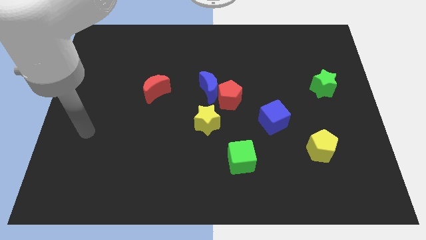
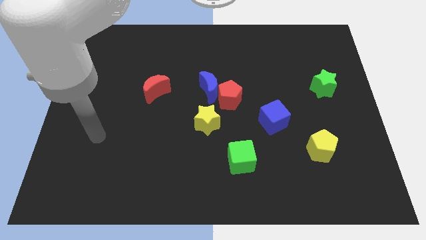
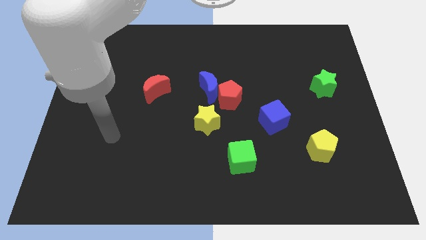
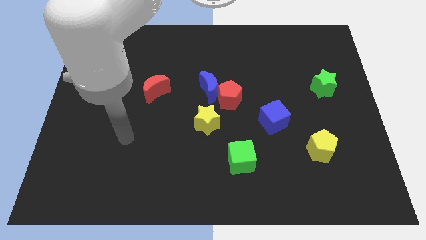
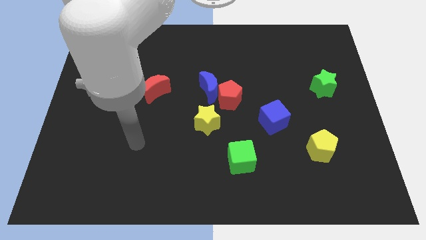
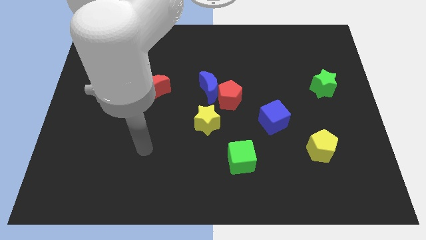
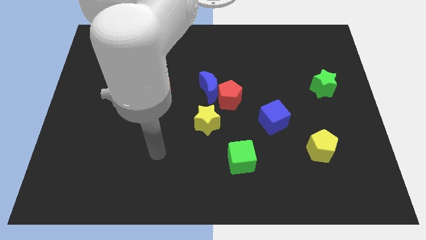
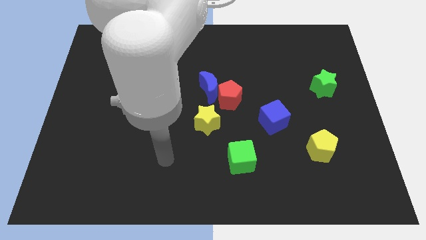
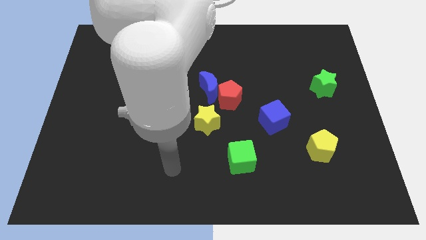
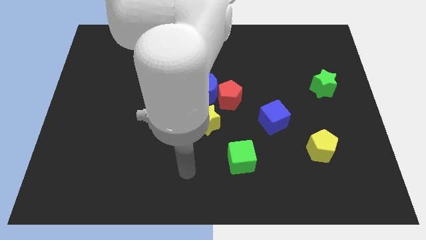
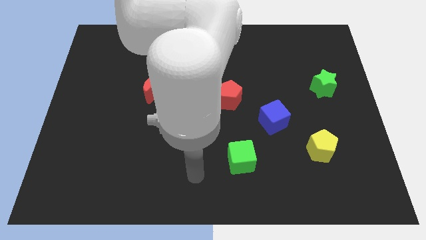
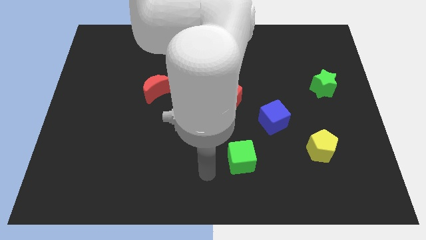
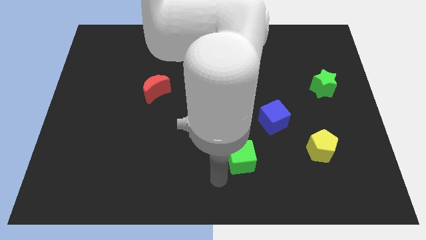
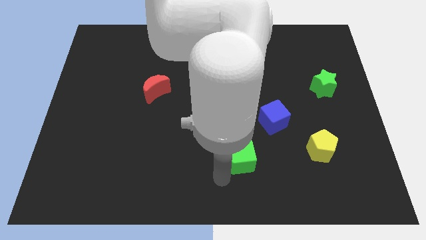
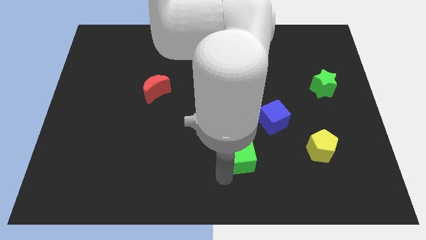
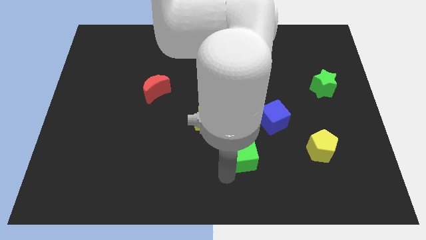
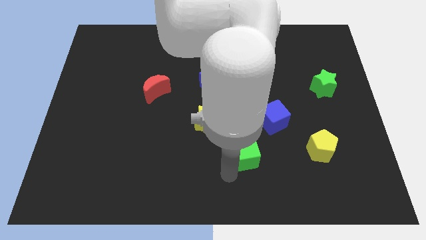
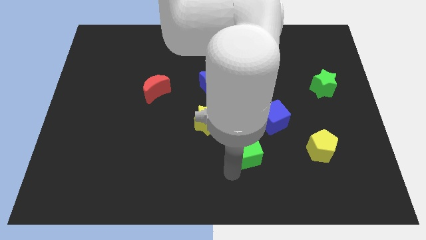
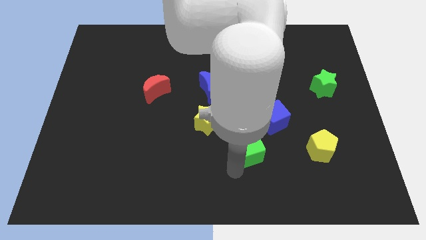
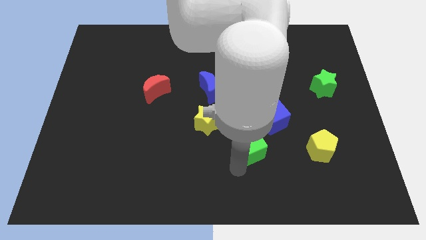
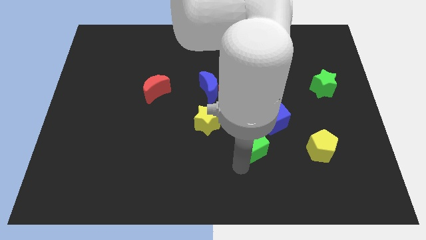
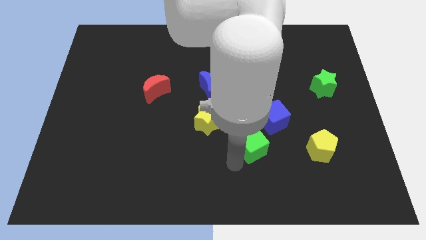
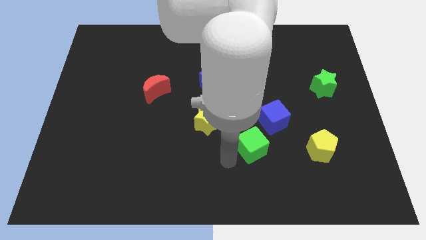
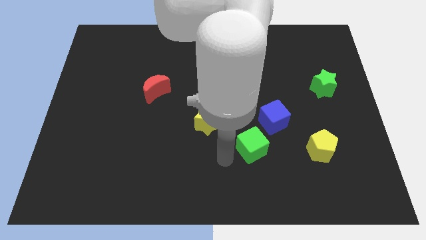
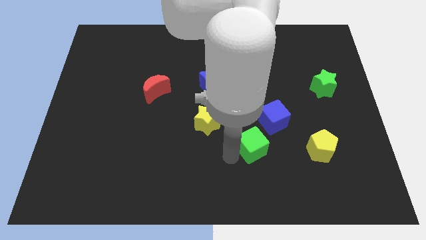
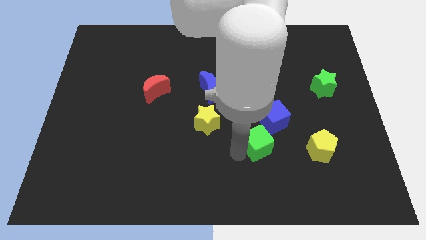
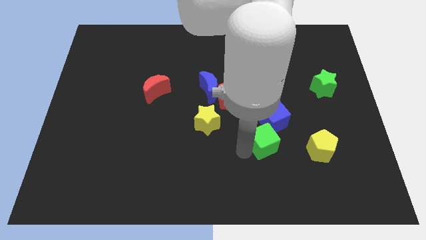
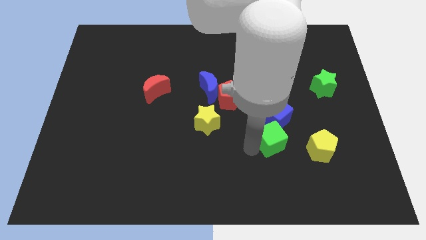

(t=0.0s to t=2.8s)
slide the green cube a little bit up and right diagonally

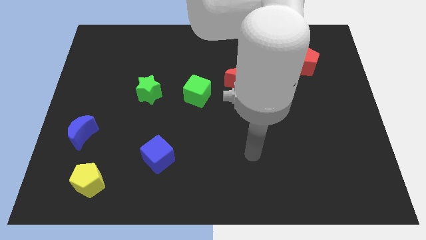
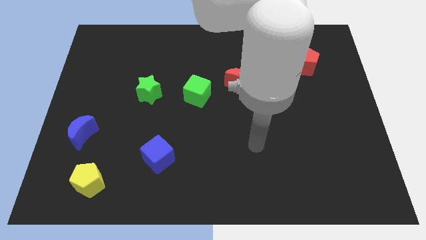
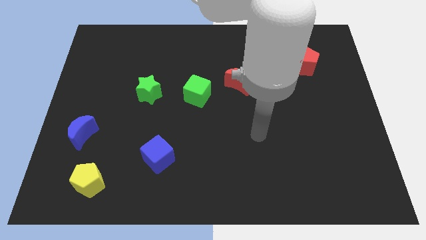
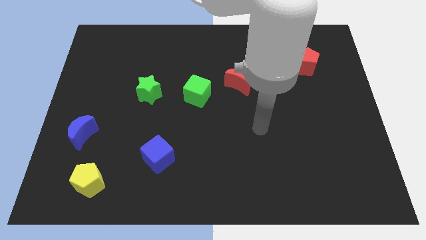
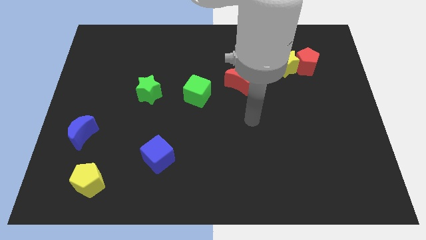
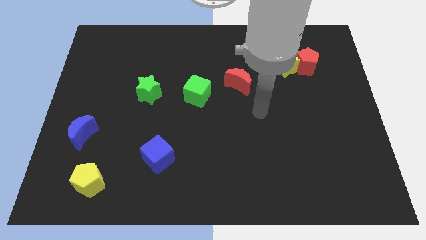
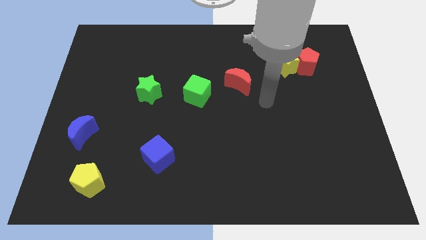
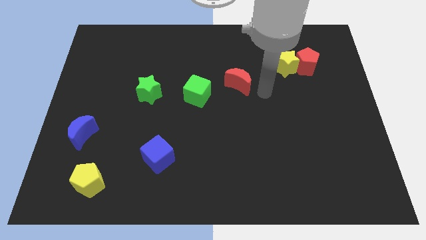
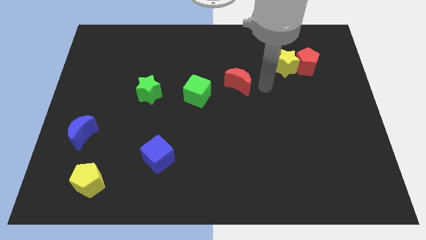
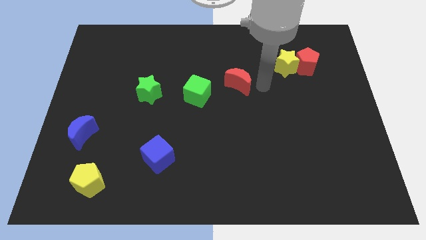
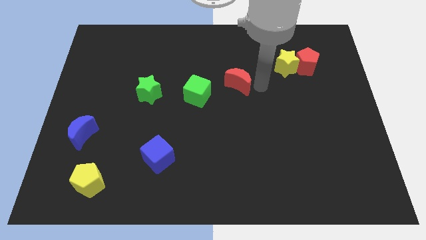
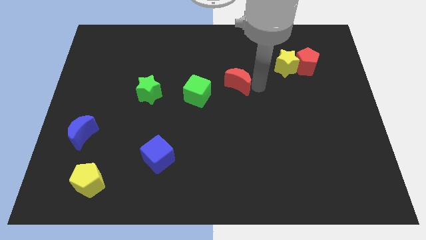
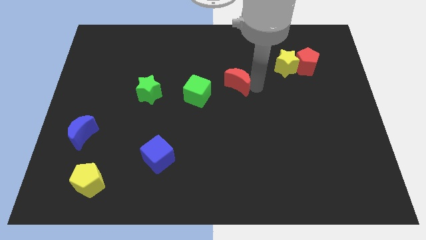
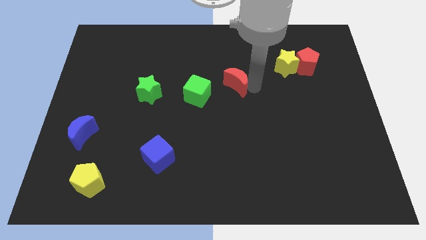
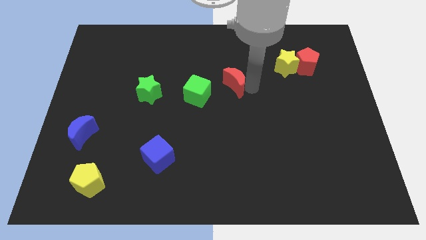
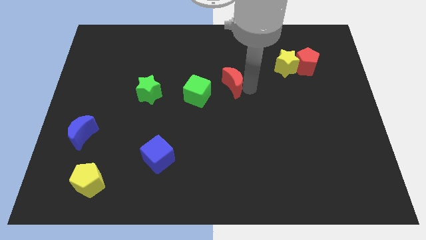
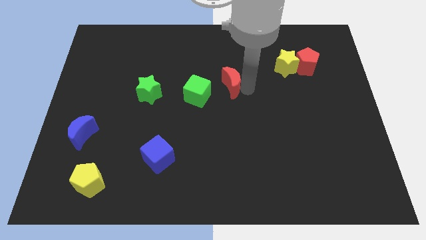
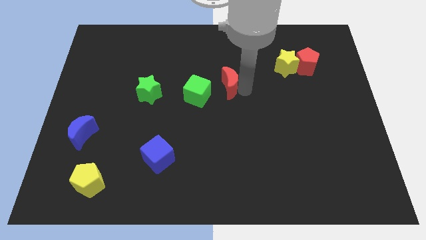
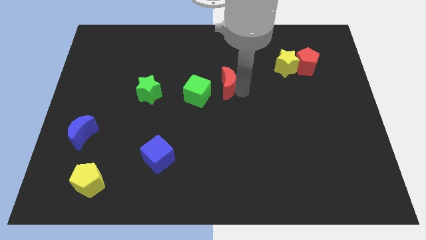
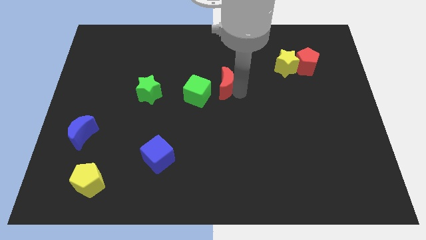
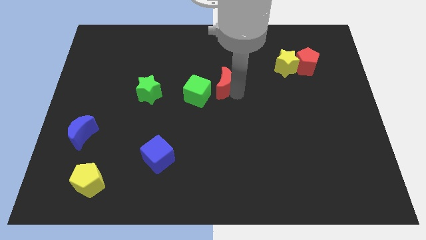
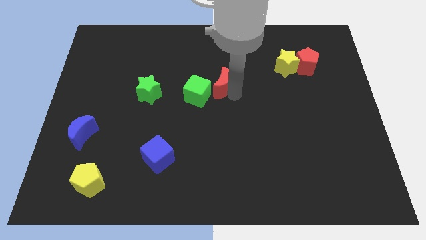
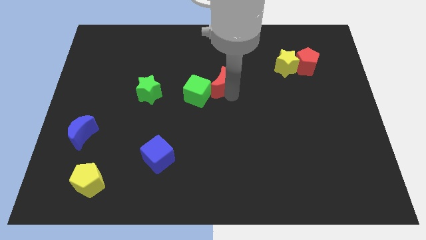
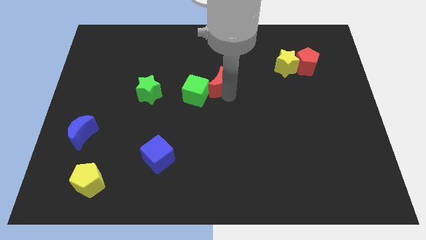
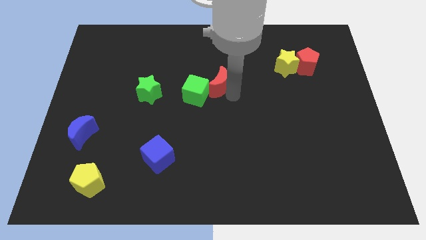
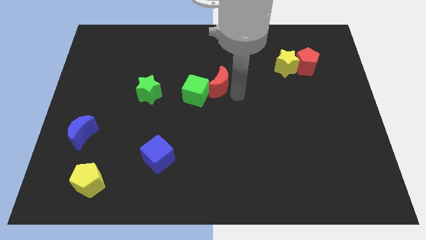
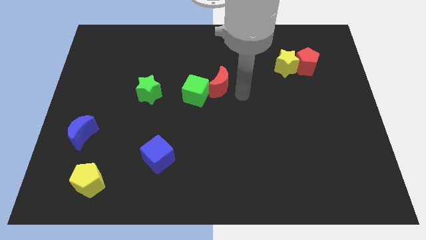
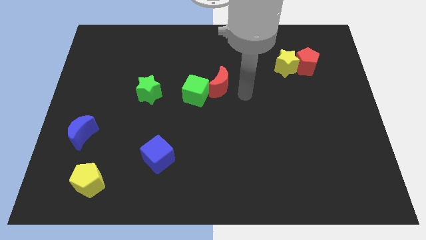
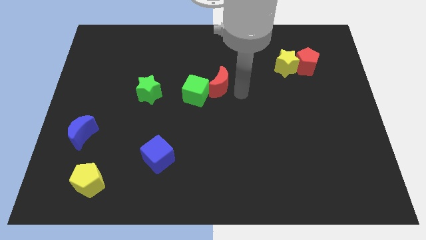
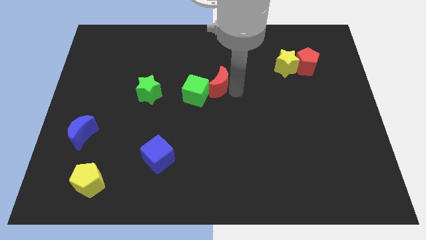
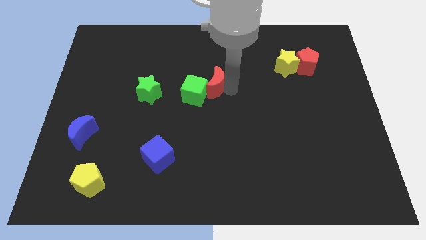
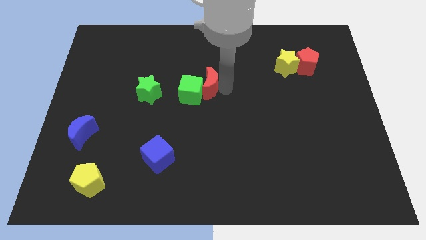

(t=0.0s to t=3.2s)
slightly move the red moon to the left

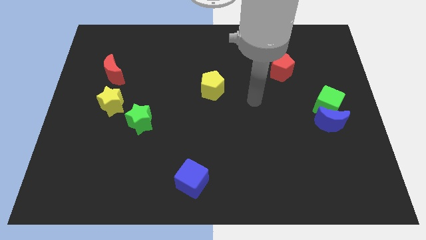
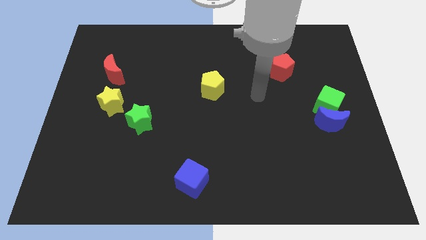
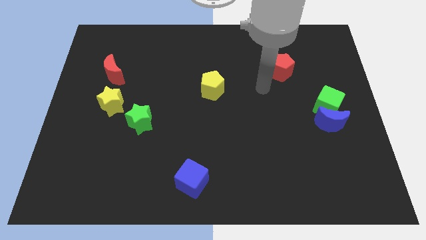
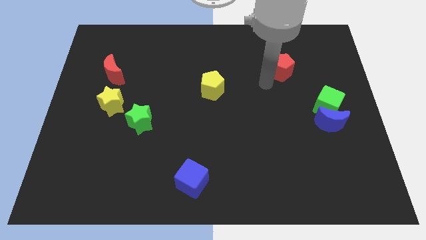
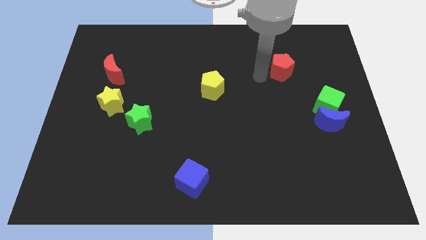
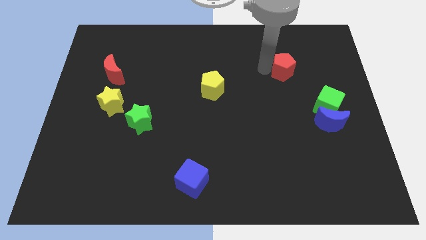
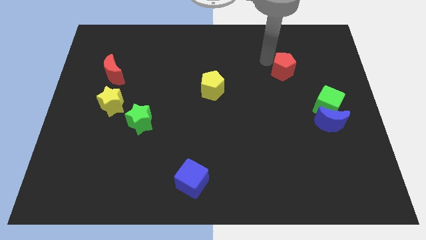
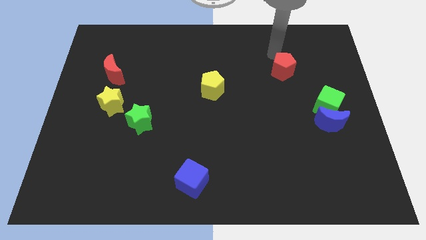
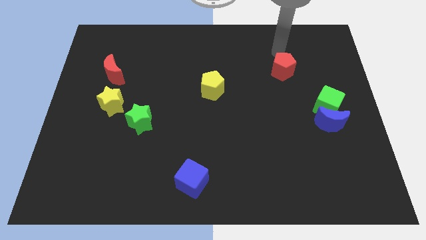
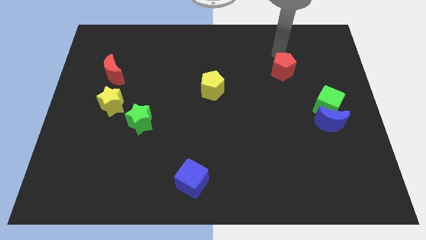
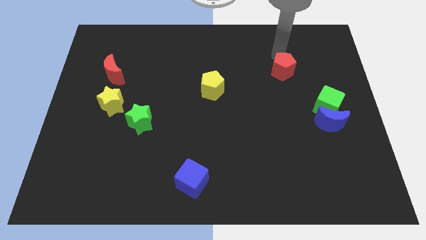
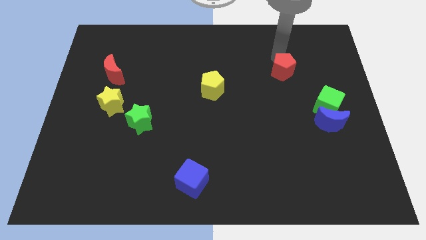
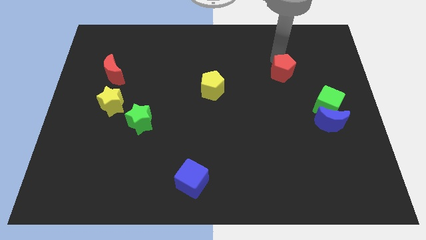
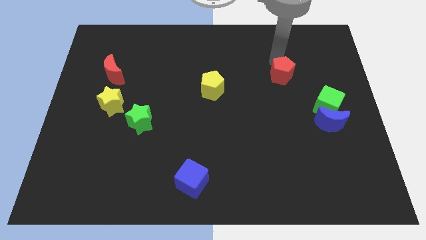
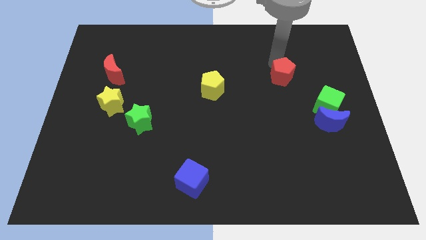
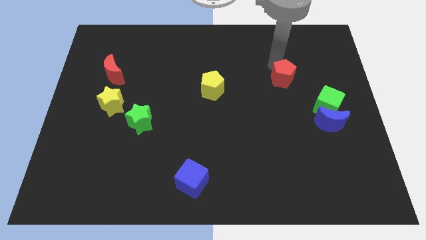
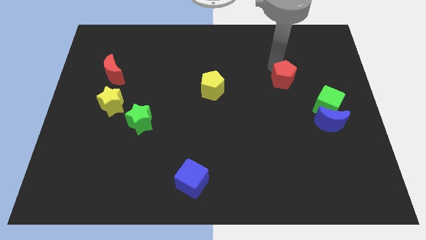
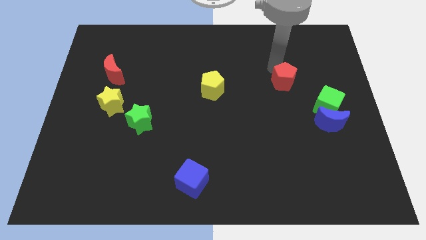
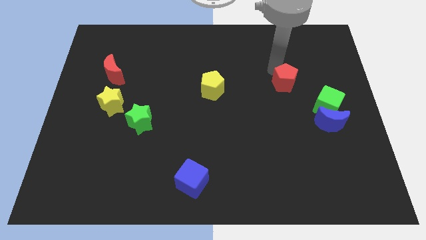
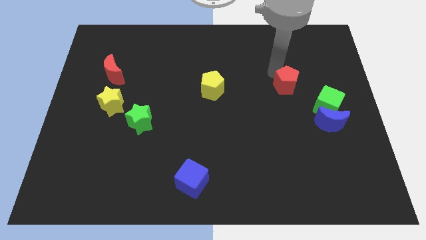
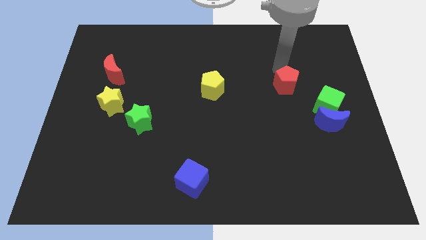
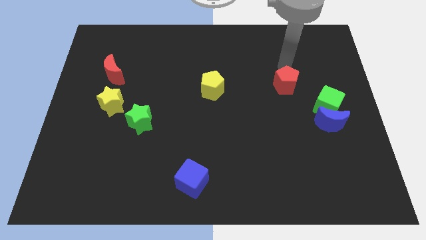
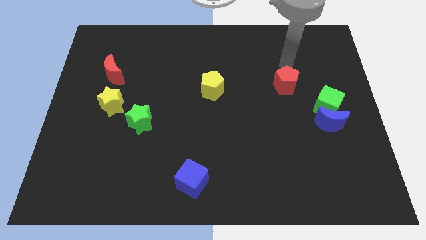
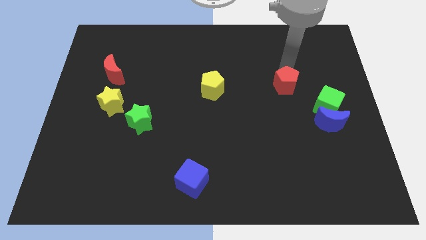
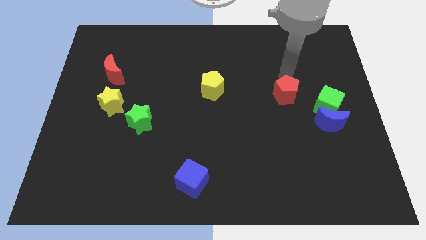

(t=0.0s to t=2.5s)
move the red pentagon down a bit
